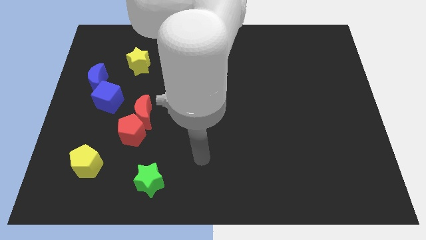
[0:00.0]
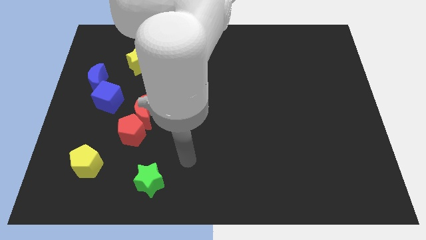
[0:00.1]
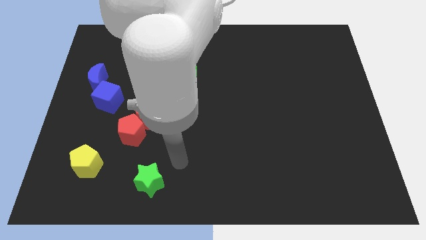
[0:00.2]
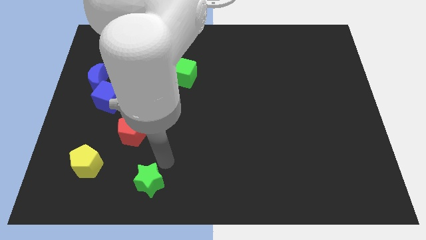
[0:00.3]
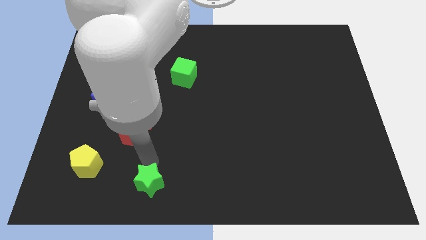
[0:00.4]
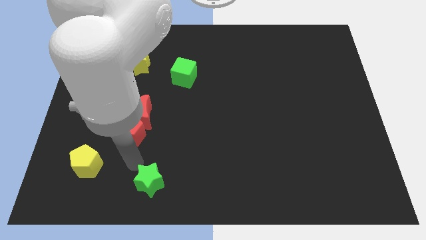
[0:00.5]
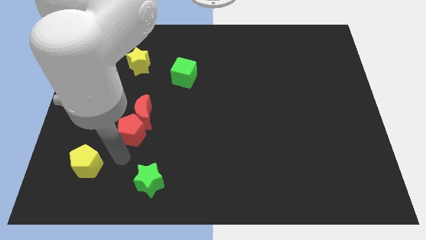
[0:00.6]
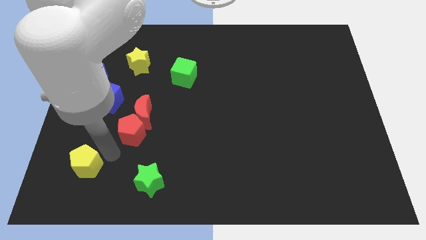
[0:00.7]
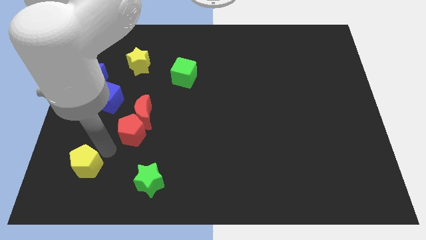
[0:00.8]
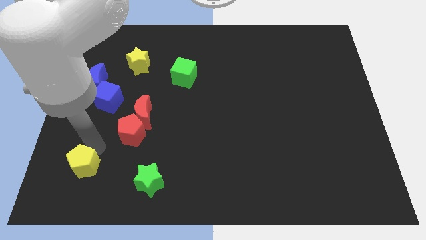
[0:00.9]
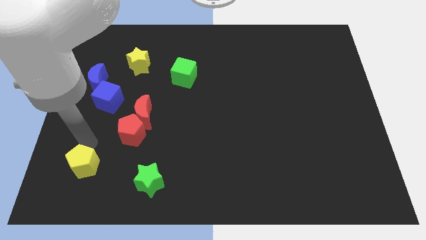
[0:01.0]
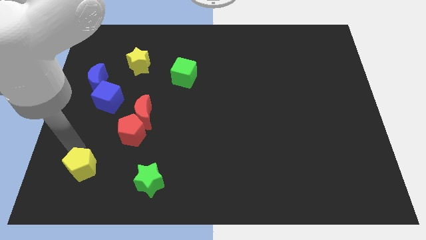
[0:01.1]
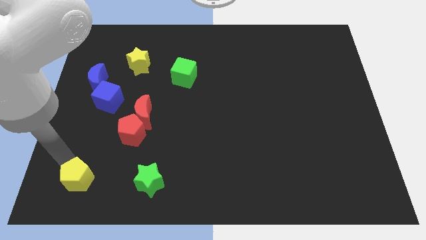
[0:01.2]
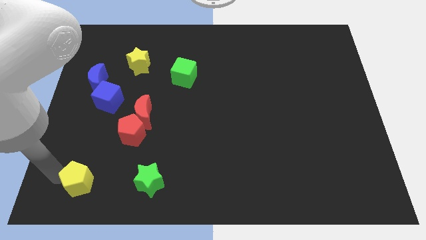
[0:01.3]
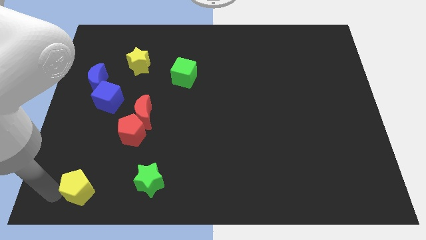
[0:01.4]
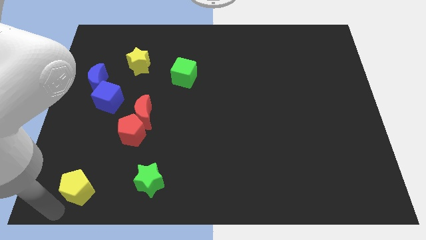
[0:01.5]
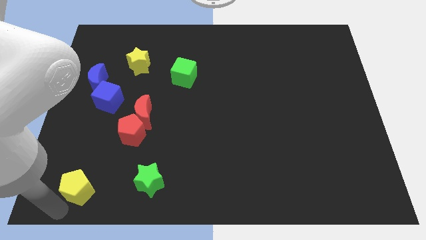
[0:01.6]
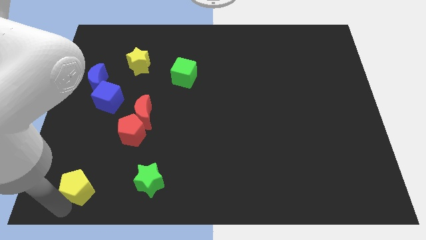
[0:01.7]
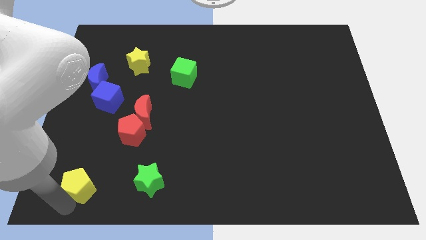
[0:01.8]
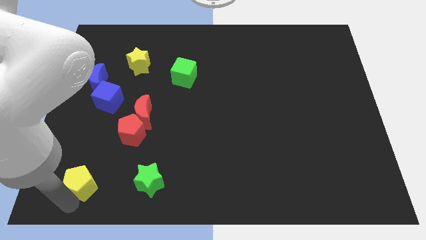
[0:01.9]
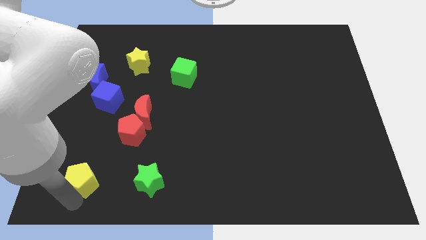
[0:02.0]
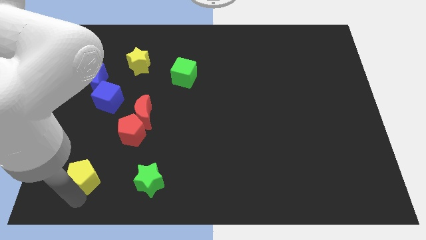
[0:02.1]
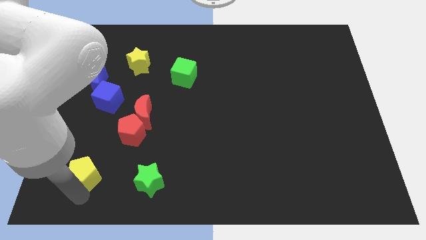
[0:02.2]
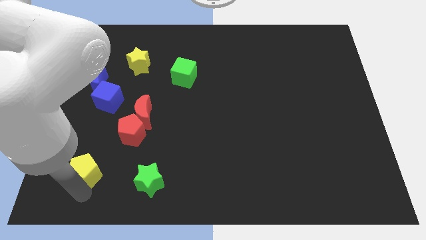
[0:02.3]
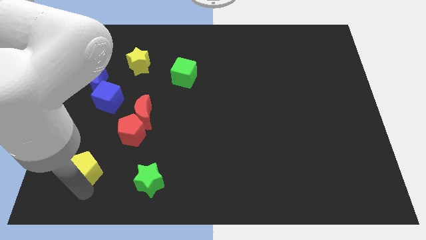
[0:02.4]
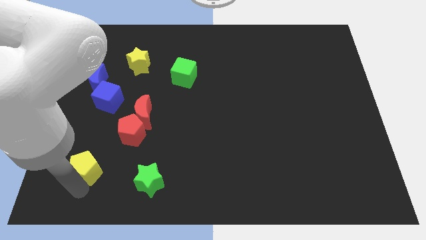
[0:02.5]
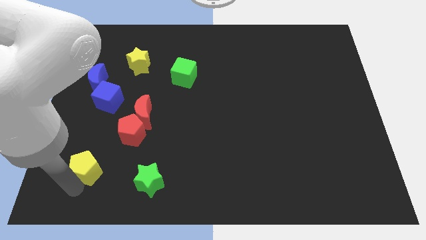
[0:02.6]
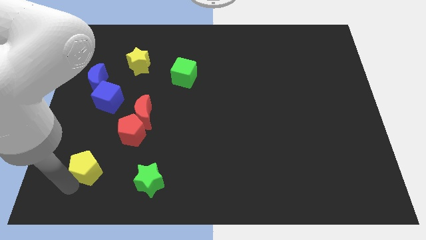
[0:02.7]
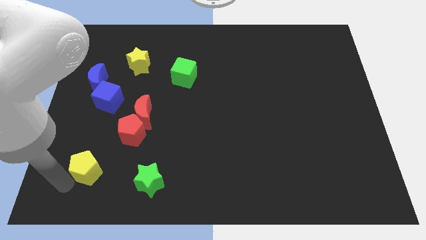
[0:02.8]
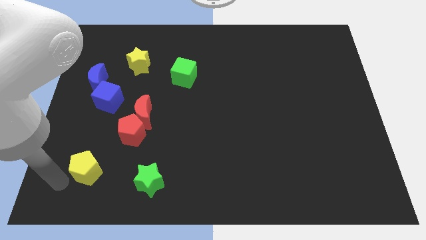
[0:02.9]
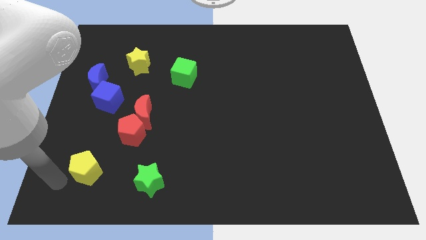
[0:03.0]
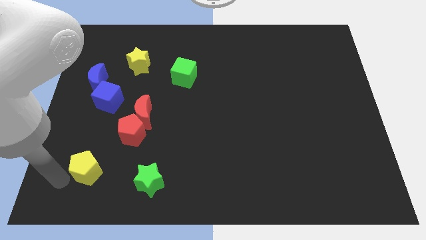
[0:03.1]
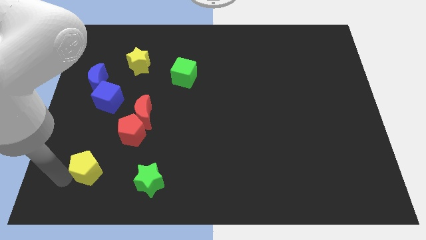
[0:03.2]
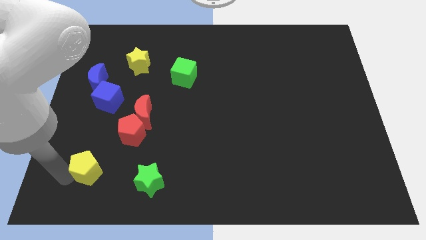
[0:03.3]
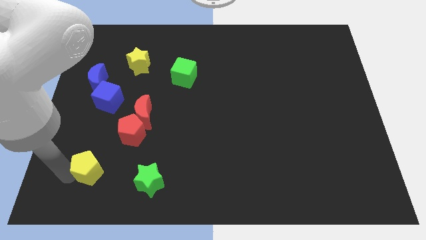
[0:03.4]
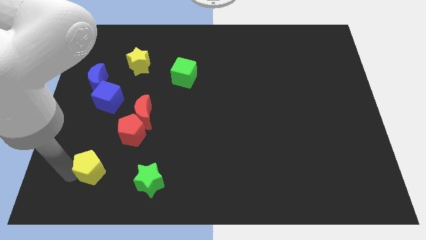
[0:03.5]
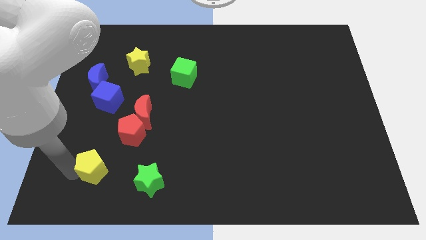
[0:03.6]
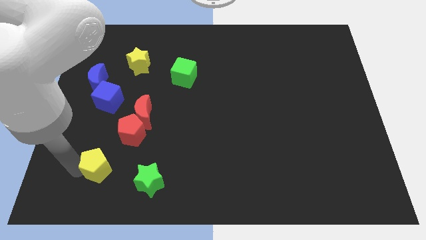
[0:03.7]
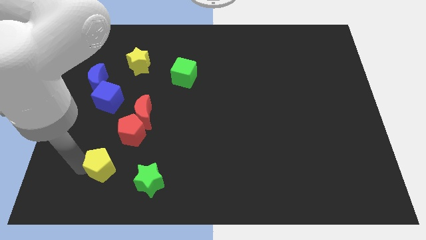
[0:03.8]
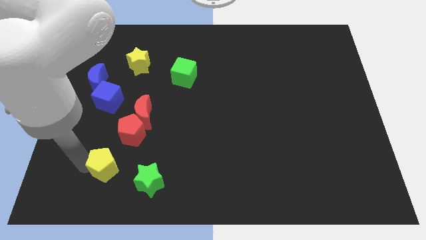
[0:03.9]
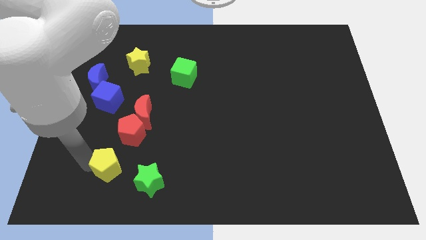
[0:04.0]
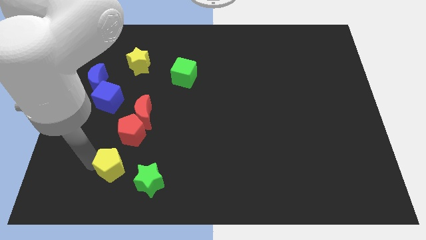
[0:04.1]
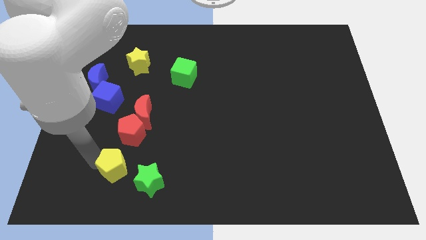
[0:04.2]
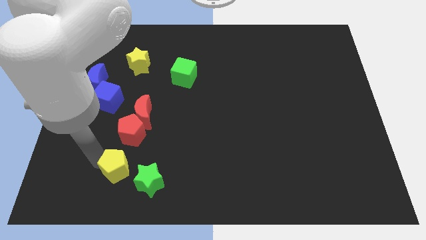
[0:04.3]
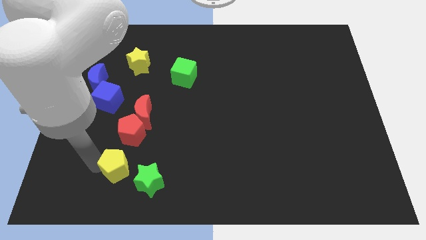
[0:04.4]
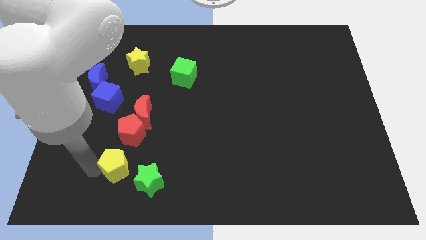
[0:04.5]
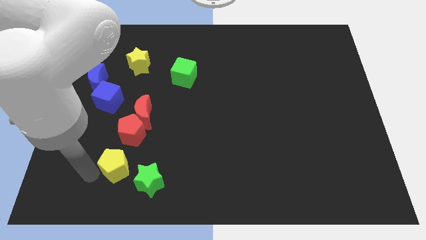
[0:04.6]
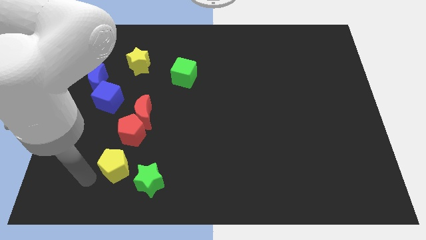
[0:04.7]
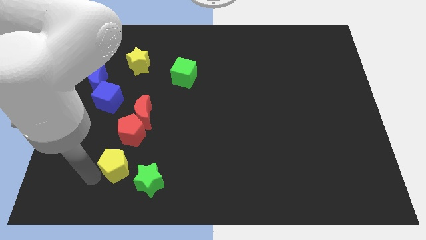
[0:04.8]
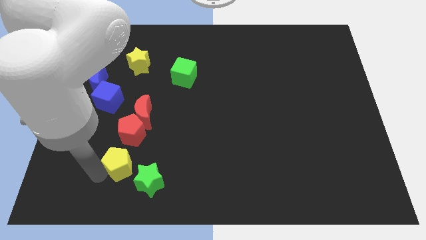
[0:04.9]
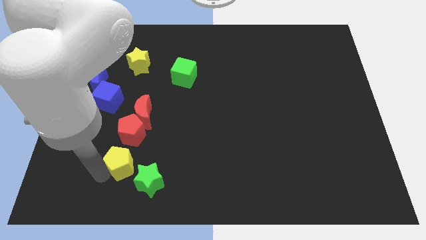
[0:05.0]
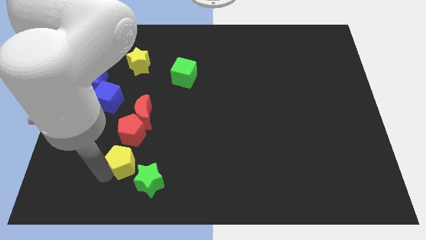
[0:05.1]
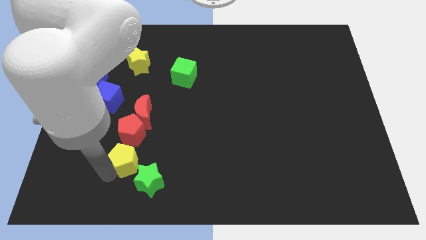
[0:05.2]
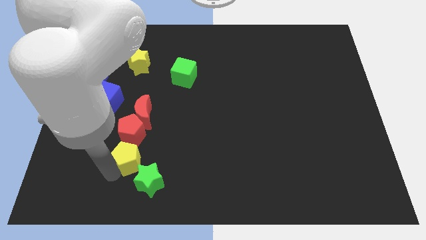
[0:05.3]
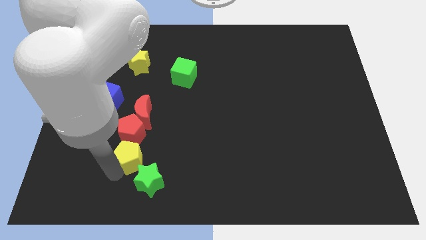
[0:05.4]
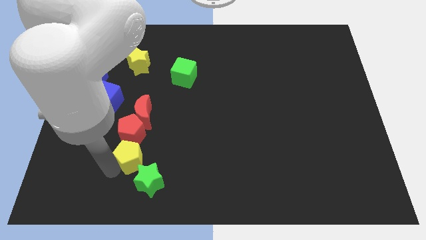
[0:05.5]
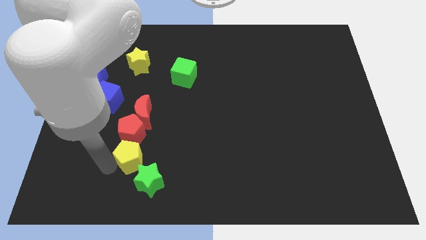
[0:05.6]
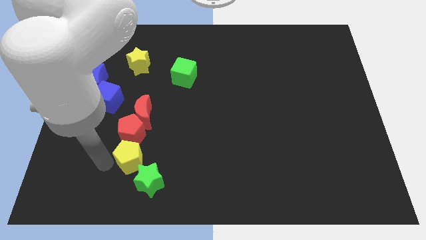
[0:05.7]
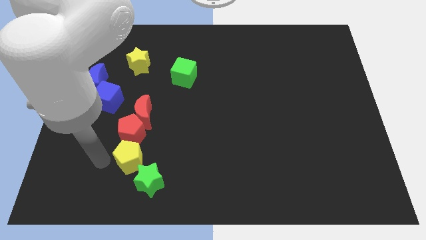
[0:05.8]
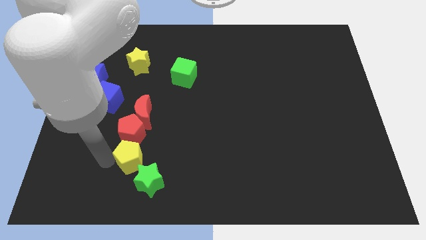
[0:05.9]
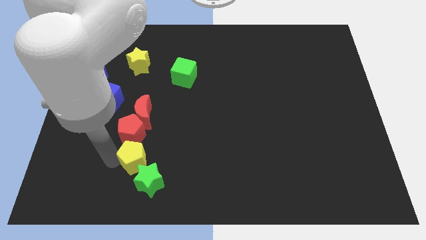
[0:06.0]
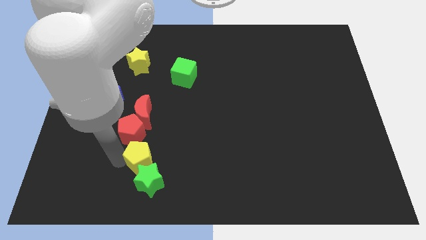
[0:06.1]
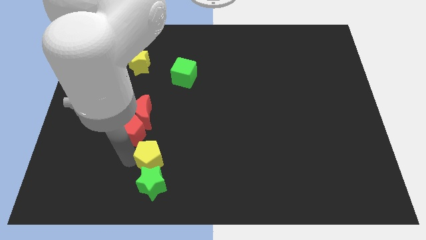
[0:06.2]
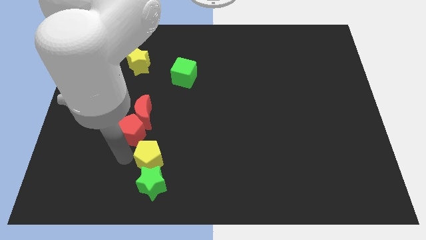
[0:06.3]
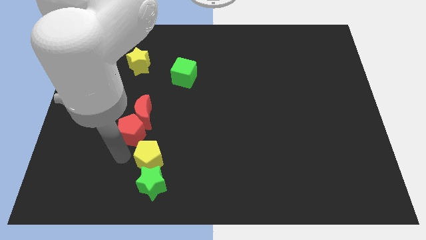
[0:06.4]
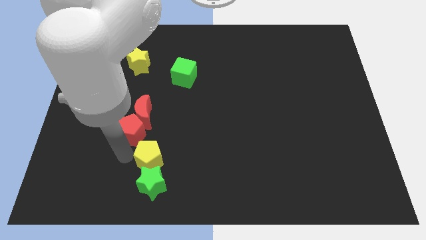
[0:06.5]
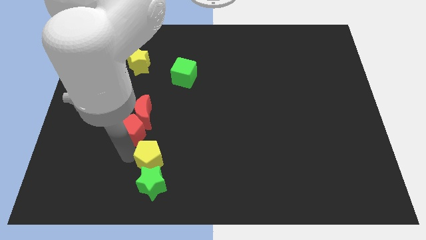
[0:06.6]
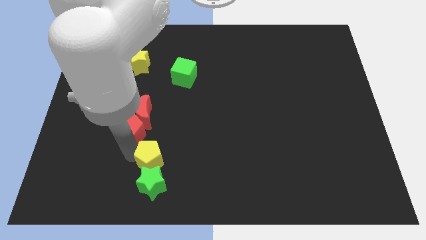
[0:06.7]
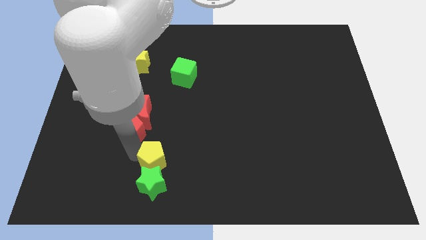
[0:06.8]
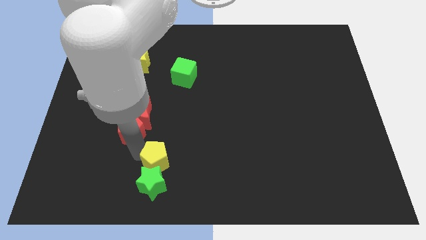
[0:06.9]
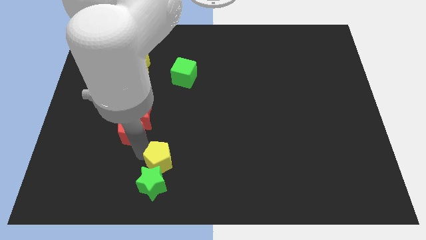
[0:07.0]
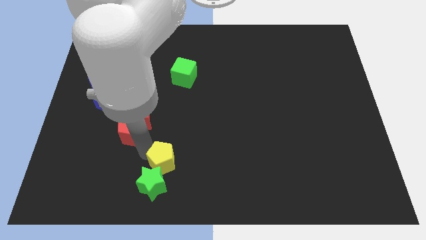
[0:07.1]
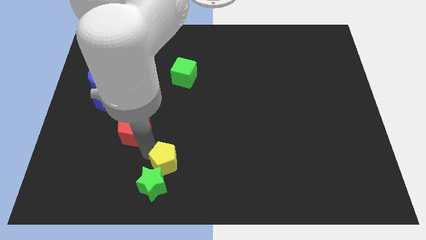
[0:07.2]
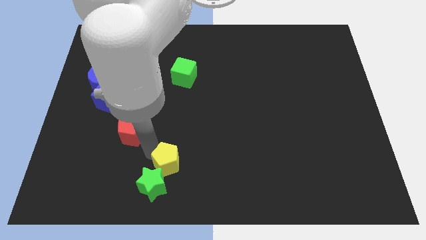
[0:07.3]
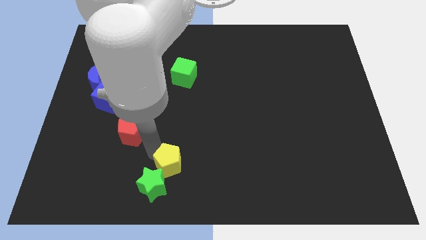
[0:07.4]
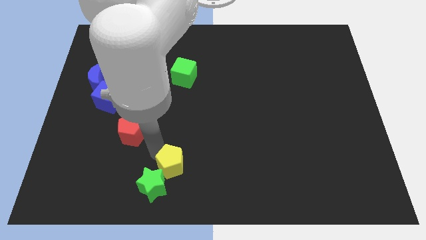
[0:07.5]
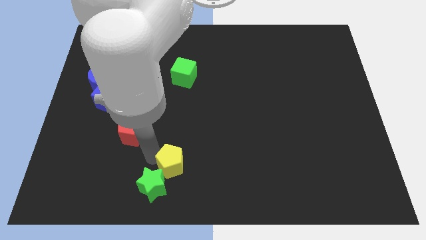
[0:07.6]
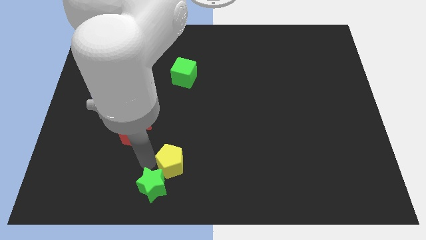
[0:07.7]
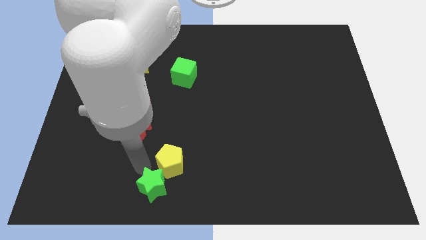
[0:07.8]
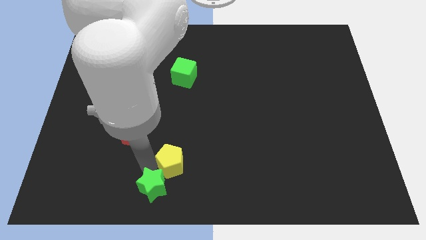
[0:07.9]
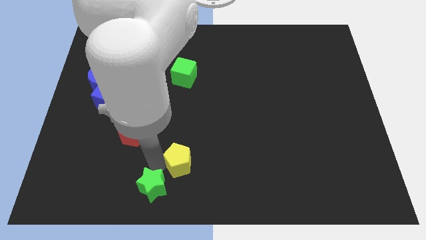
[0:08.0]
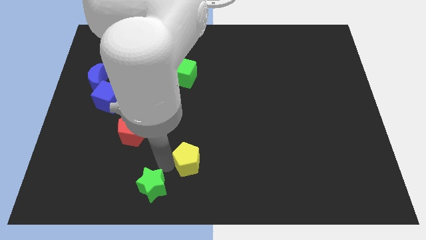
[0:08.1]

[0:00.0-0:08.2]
move the yellow pentagon to the right

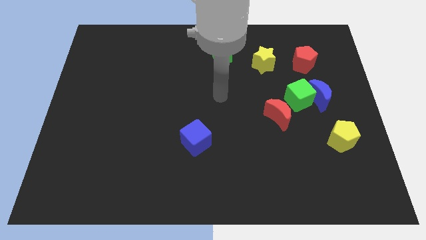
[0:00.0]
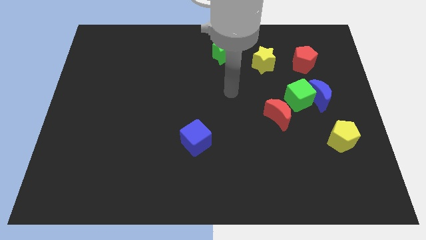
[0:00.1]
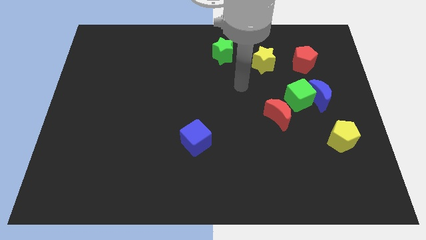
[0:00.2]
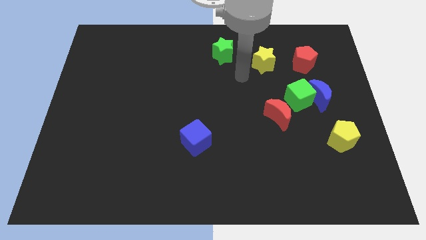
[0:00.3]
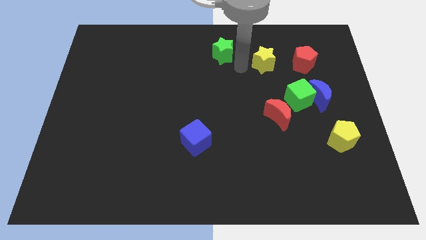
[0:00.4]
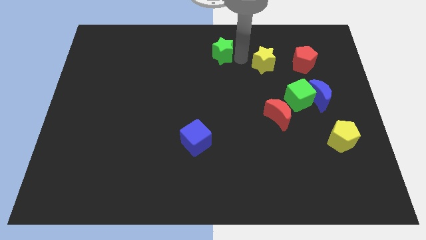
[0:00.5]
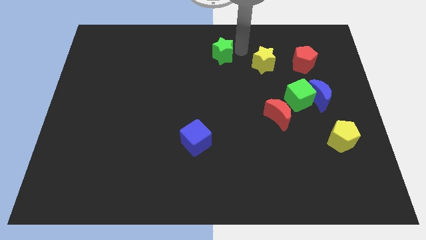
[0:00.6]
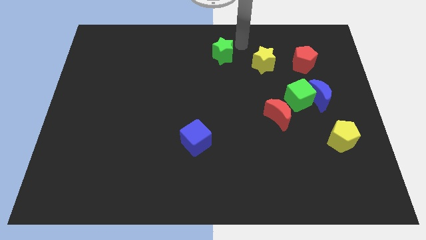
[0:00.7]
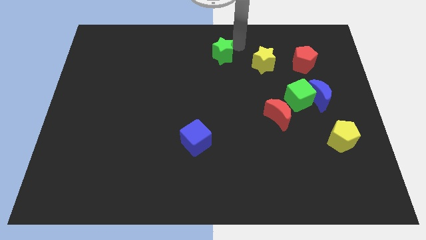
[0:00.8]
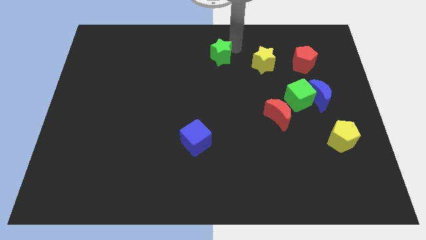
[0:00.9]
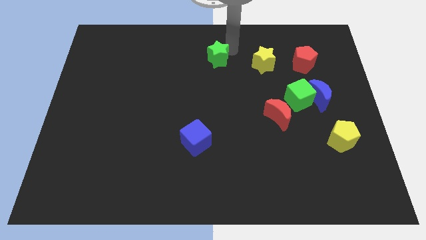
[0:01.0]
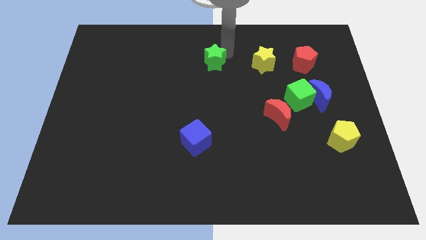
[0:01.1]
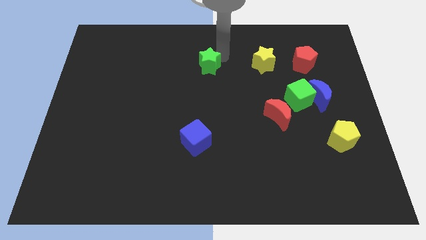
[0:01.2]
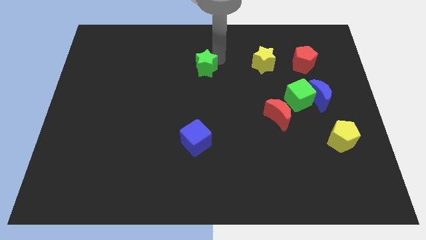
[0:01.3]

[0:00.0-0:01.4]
push the green star a little bit downwards and left diagonally
